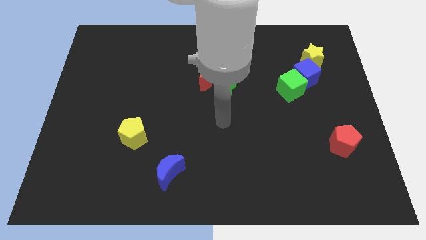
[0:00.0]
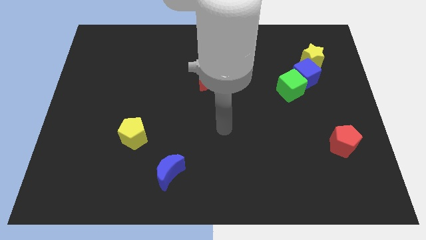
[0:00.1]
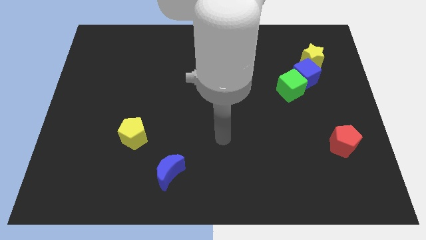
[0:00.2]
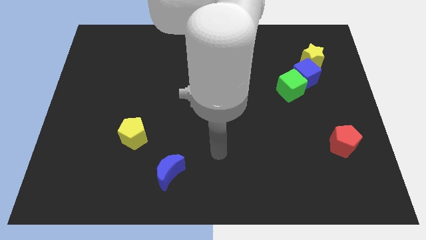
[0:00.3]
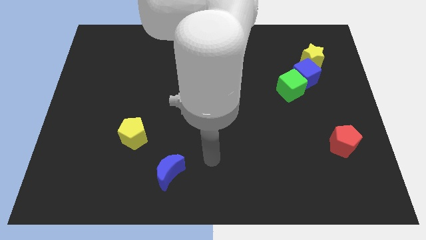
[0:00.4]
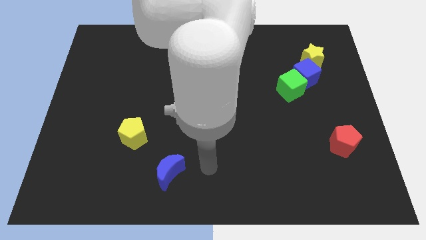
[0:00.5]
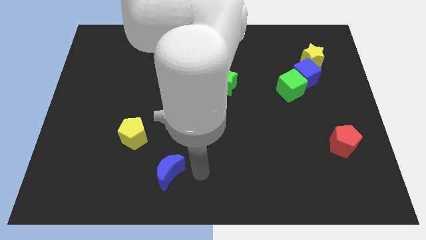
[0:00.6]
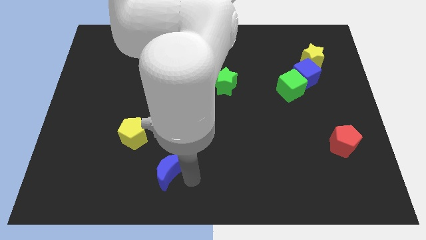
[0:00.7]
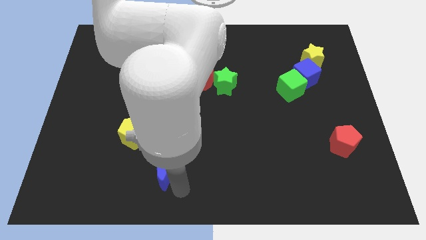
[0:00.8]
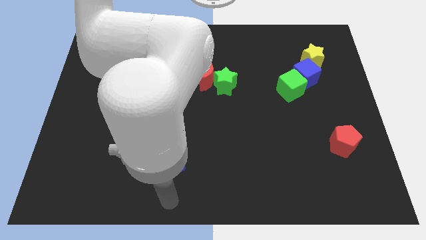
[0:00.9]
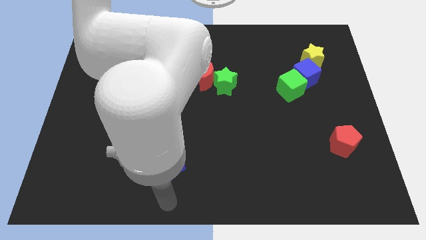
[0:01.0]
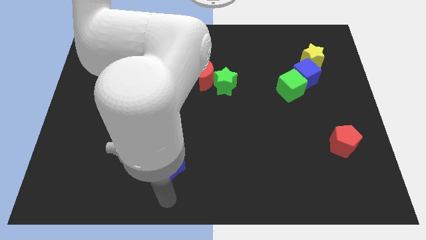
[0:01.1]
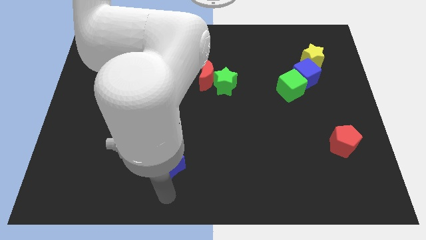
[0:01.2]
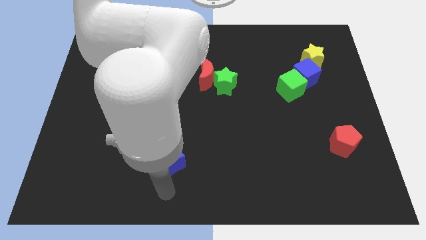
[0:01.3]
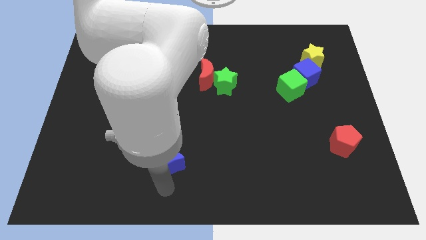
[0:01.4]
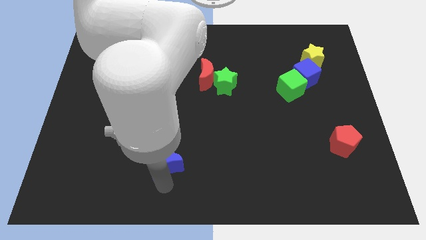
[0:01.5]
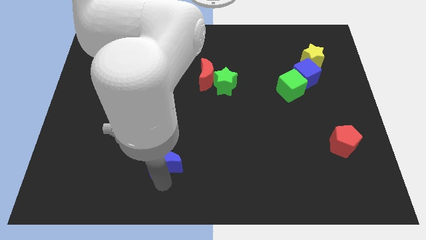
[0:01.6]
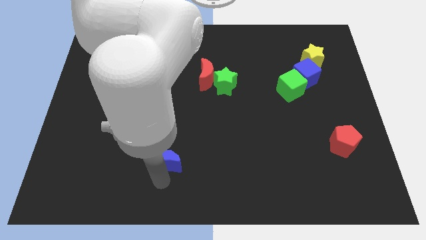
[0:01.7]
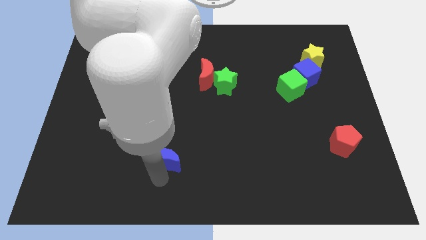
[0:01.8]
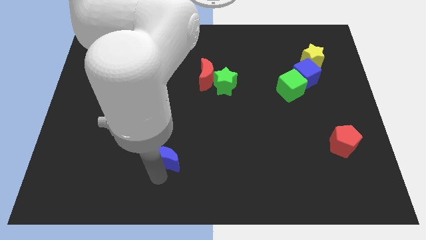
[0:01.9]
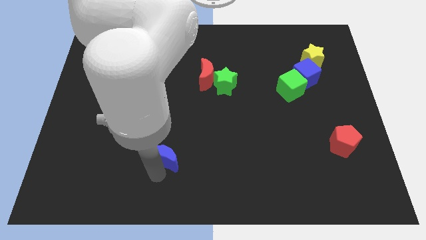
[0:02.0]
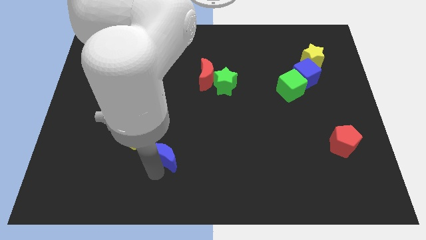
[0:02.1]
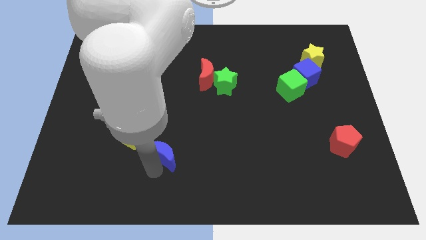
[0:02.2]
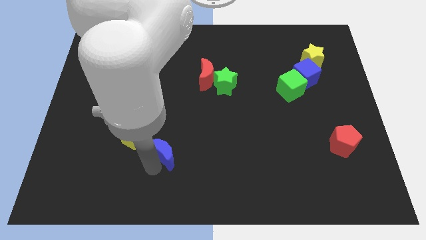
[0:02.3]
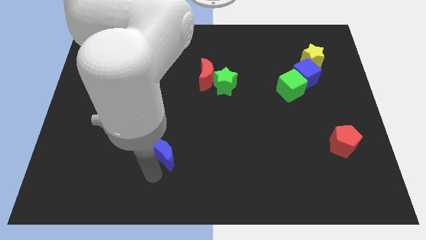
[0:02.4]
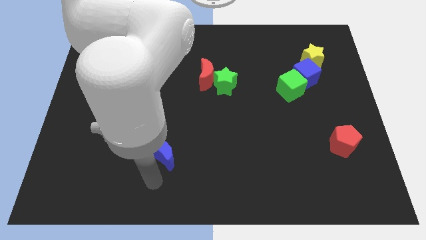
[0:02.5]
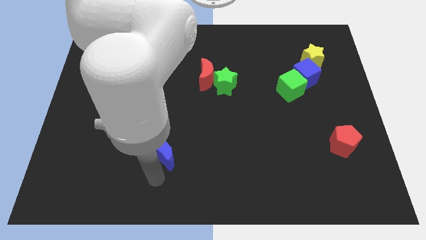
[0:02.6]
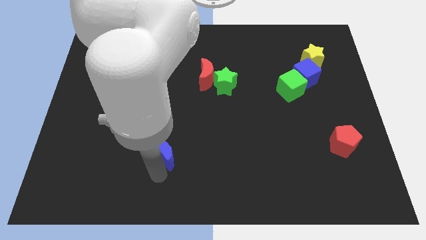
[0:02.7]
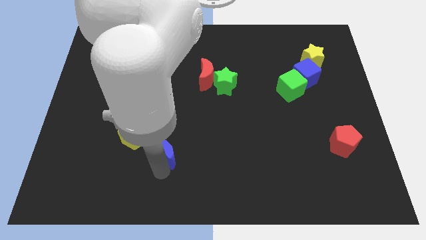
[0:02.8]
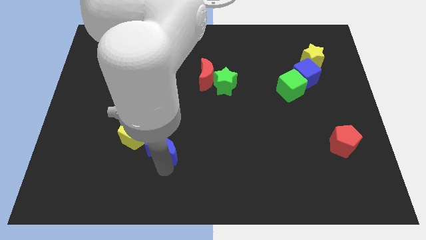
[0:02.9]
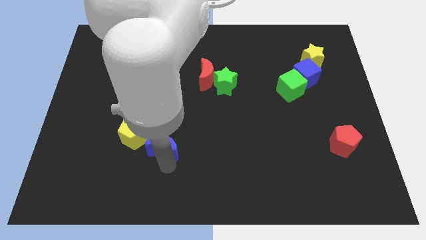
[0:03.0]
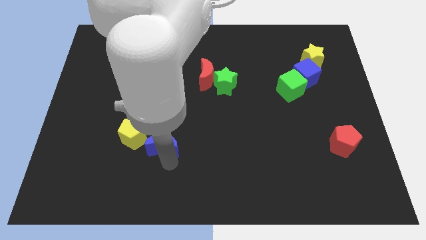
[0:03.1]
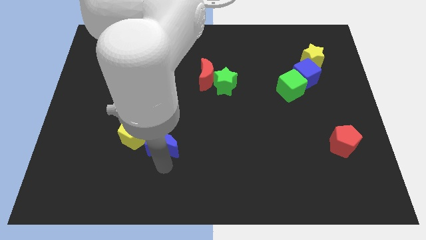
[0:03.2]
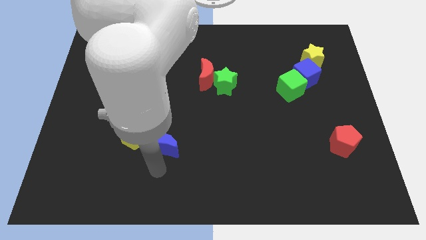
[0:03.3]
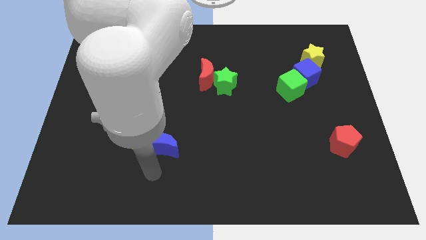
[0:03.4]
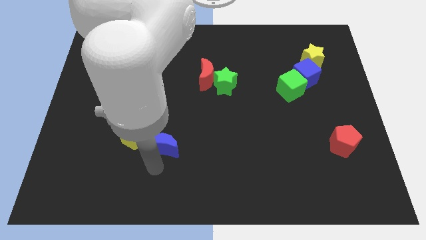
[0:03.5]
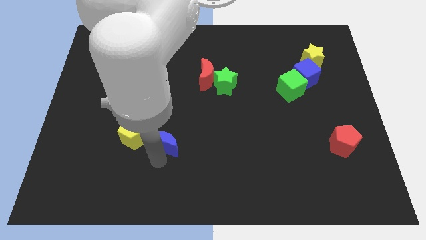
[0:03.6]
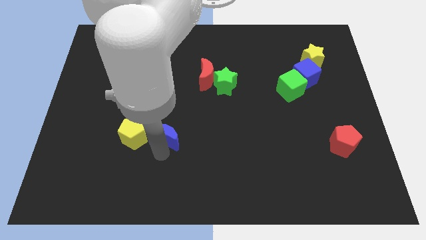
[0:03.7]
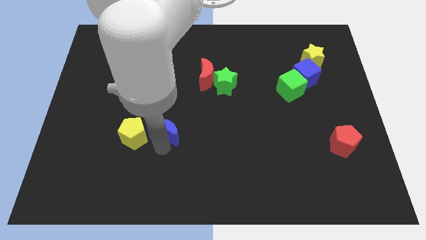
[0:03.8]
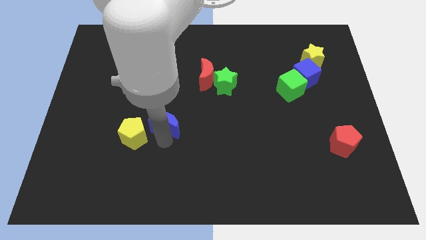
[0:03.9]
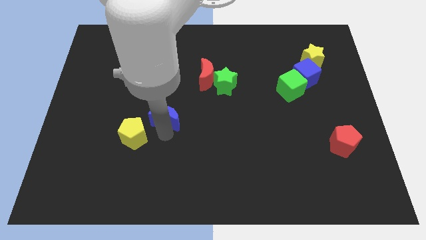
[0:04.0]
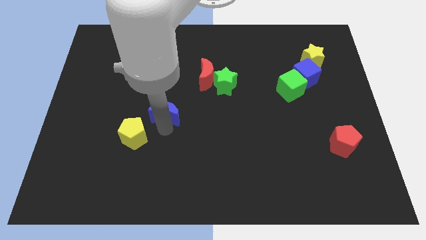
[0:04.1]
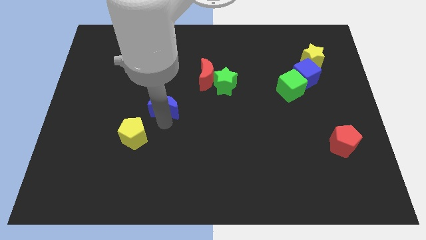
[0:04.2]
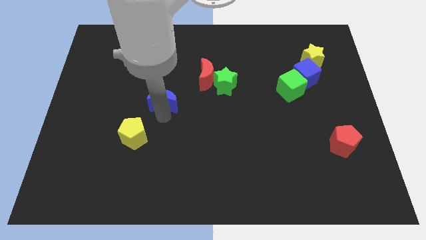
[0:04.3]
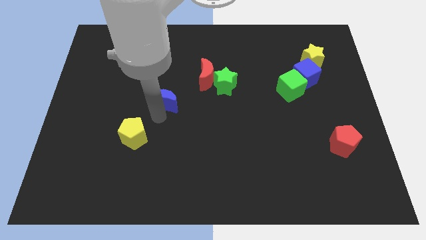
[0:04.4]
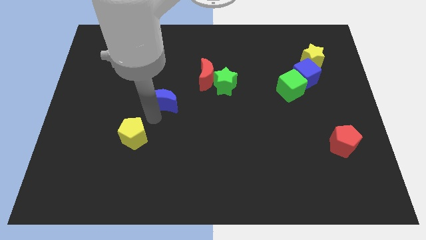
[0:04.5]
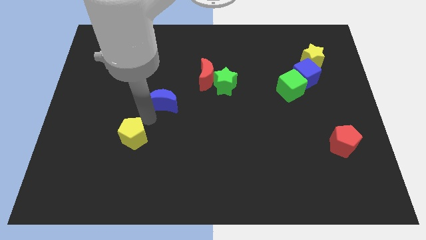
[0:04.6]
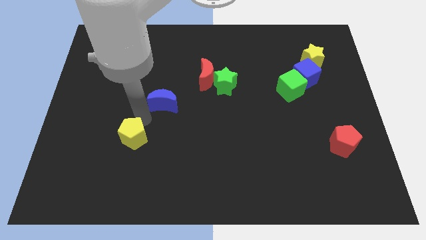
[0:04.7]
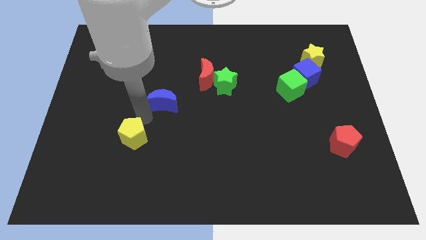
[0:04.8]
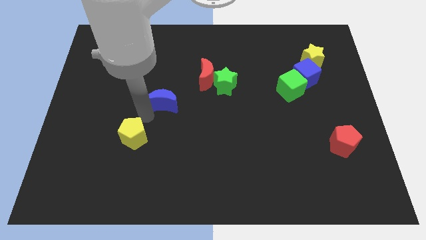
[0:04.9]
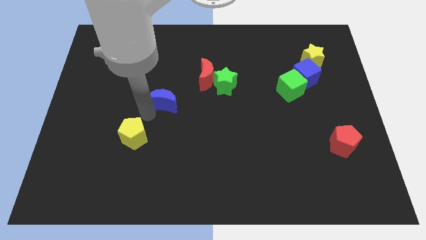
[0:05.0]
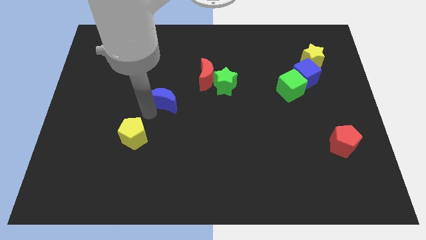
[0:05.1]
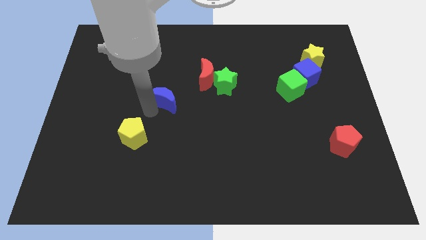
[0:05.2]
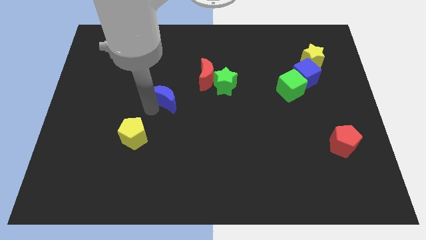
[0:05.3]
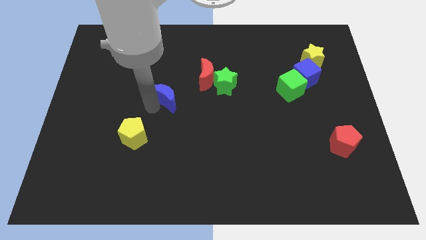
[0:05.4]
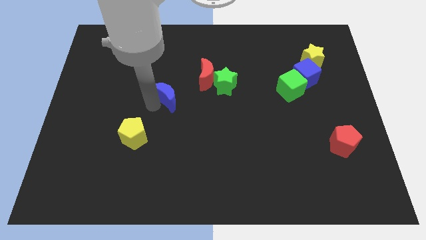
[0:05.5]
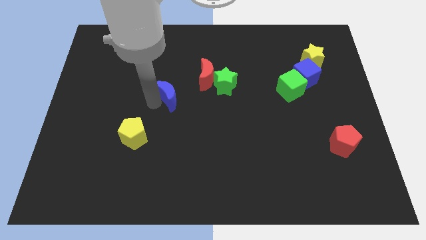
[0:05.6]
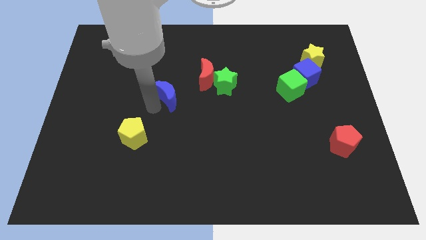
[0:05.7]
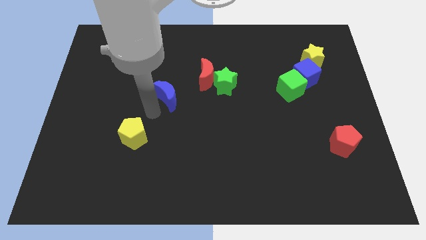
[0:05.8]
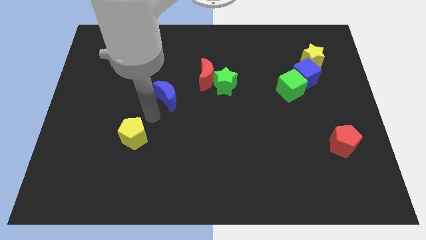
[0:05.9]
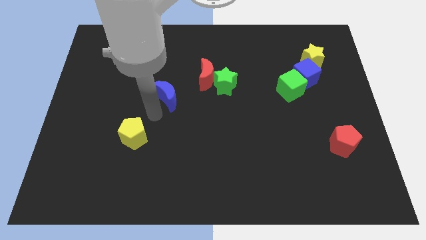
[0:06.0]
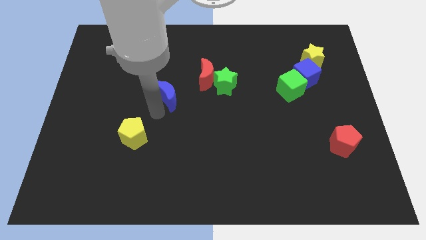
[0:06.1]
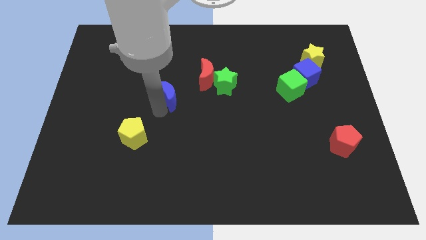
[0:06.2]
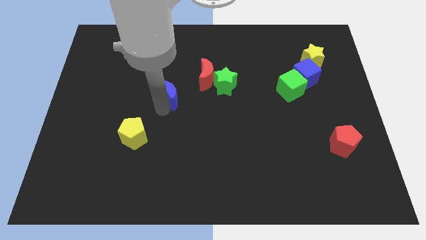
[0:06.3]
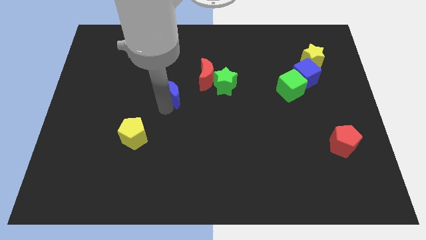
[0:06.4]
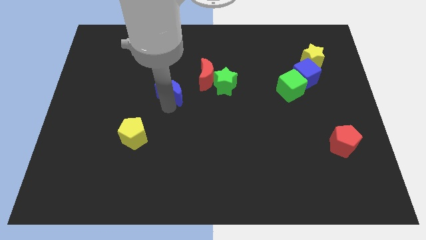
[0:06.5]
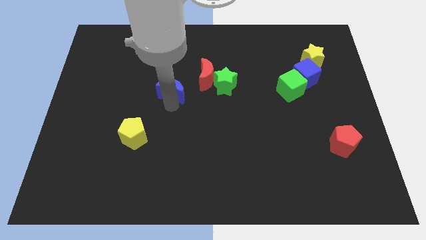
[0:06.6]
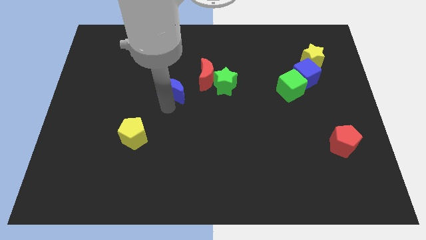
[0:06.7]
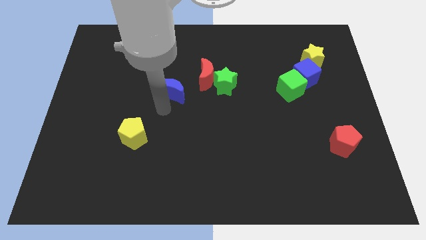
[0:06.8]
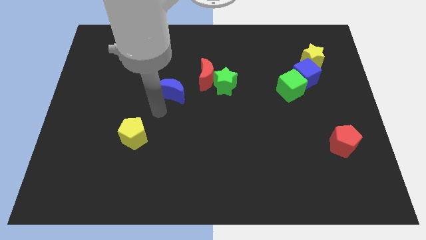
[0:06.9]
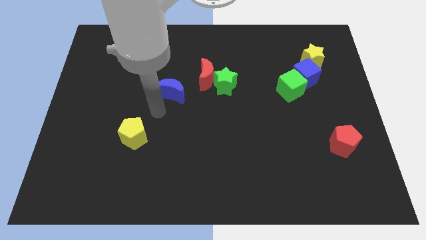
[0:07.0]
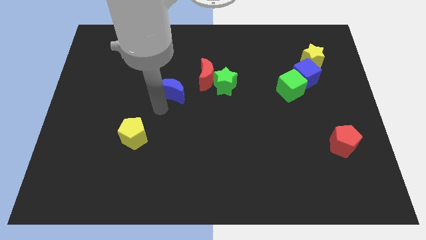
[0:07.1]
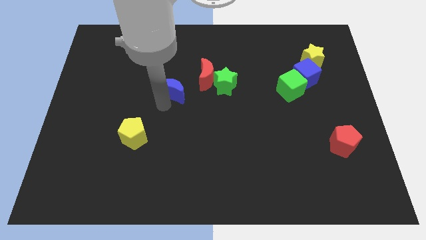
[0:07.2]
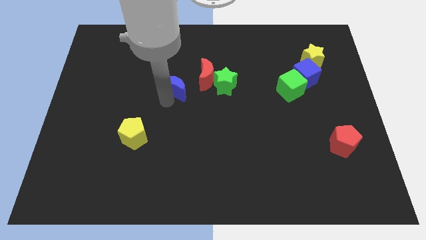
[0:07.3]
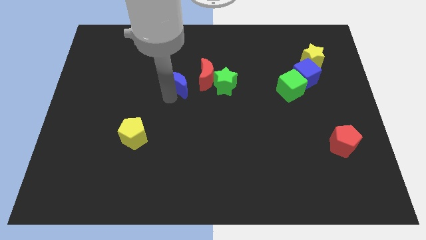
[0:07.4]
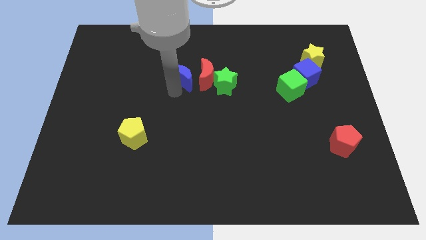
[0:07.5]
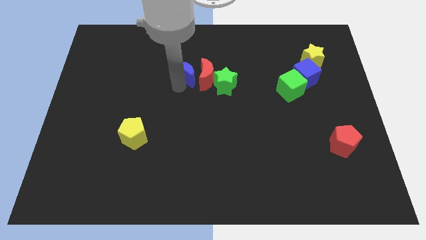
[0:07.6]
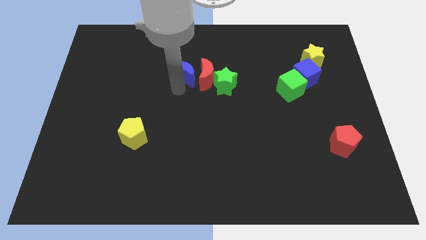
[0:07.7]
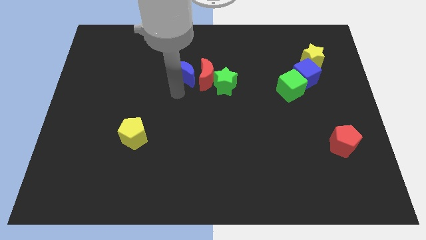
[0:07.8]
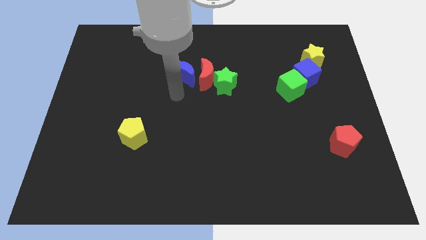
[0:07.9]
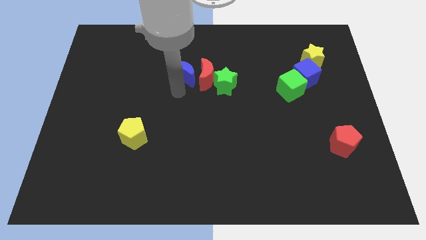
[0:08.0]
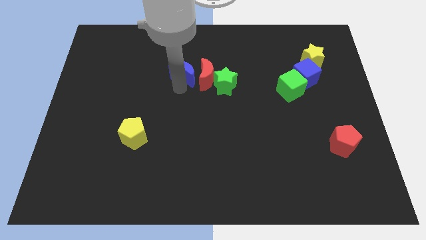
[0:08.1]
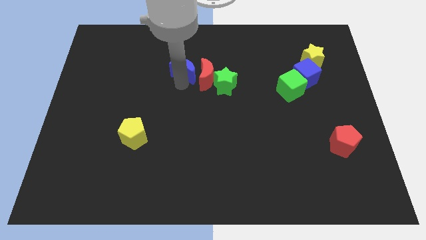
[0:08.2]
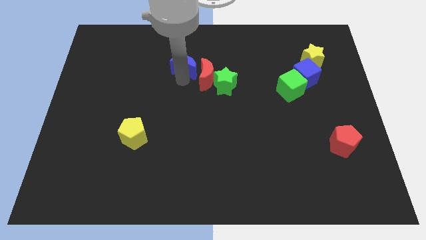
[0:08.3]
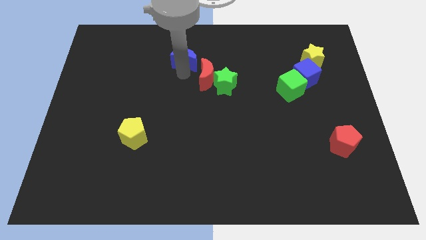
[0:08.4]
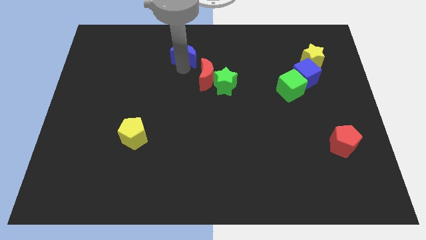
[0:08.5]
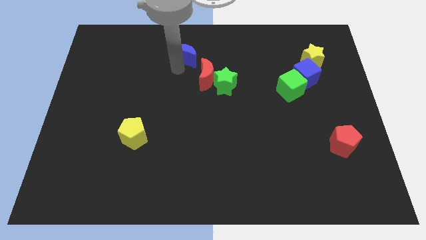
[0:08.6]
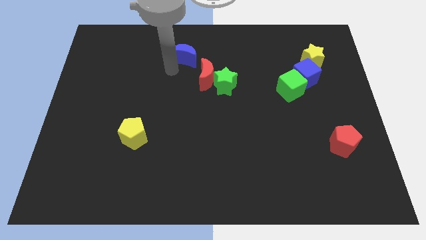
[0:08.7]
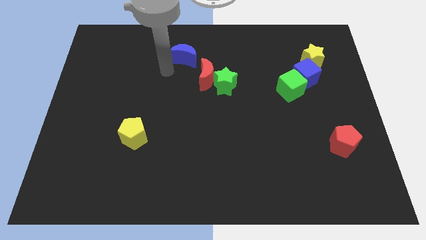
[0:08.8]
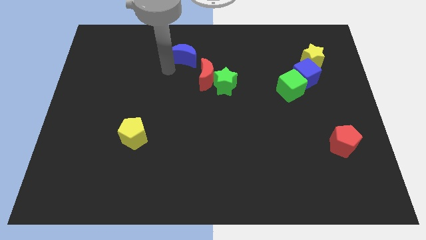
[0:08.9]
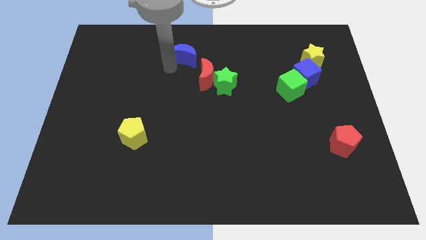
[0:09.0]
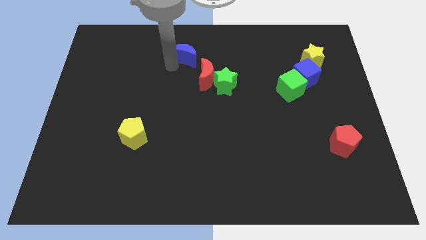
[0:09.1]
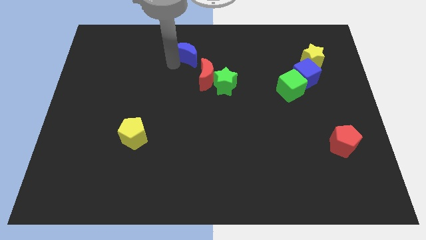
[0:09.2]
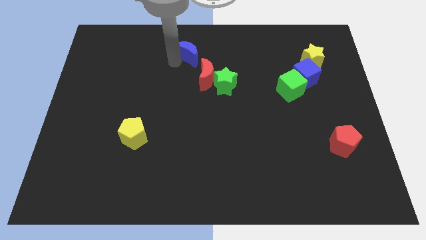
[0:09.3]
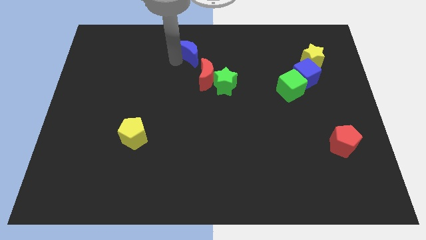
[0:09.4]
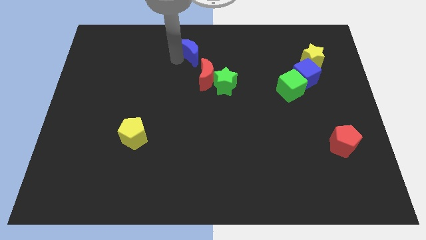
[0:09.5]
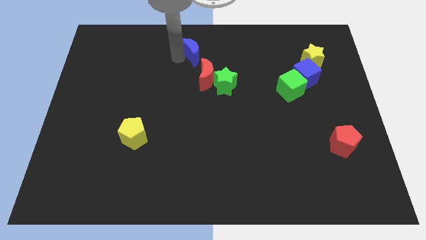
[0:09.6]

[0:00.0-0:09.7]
move the blue moon to the top side
